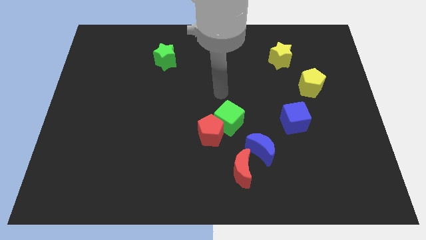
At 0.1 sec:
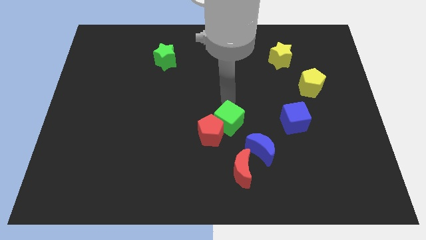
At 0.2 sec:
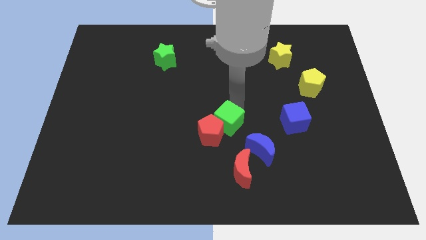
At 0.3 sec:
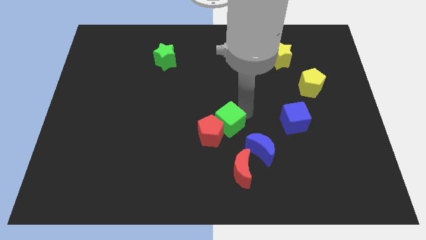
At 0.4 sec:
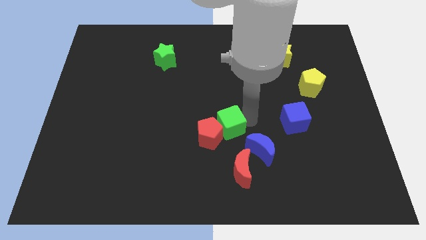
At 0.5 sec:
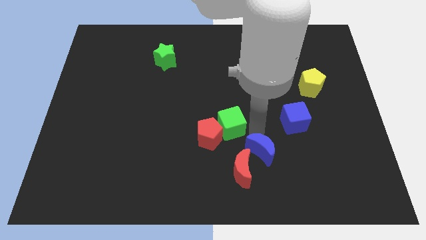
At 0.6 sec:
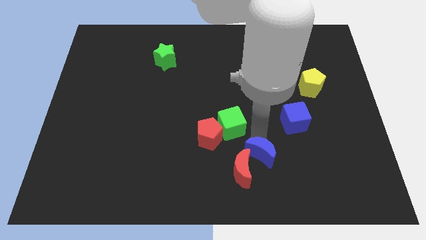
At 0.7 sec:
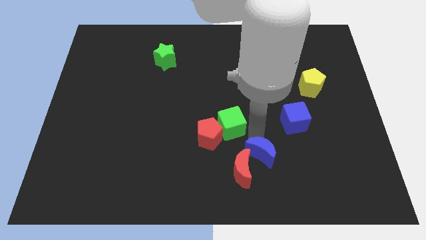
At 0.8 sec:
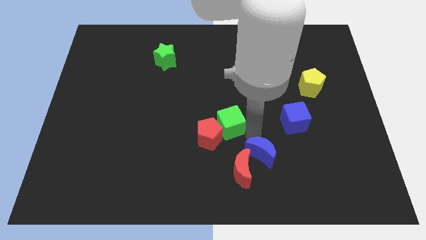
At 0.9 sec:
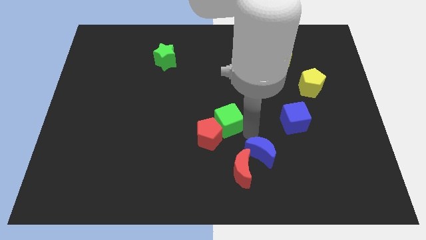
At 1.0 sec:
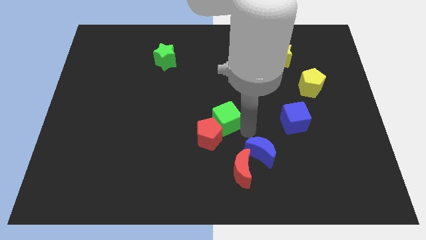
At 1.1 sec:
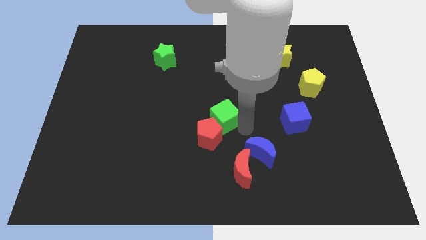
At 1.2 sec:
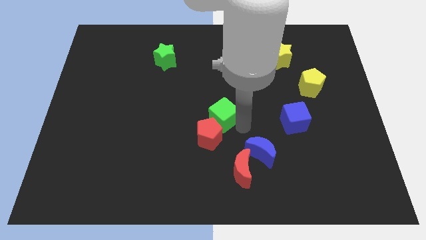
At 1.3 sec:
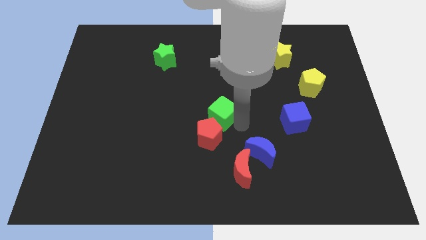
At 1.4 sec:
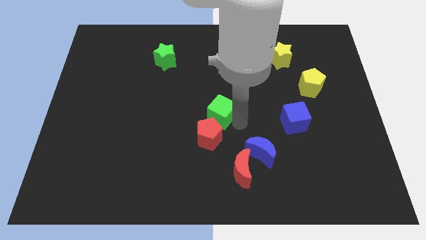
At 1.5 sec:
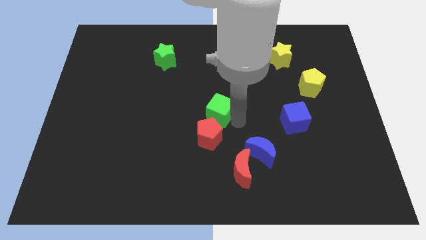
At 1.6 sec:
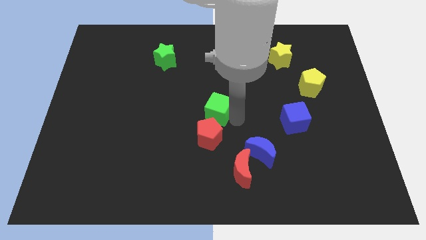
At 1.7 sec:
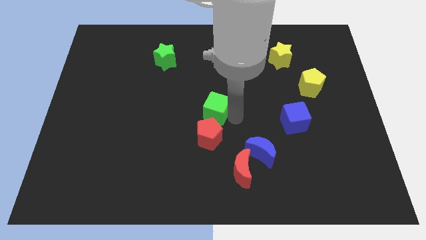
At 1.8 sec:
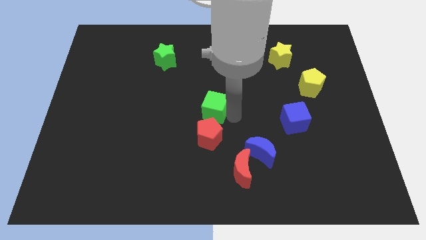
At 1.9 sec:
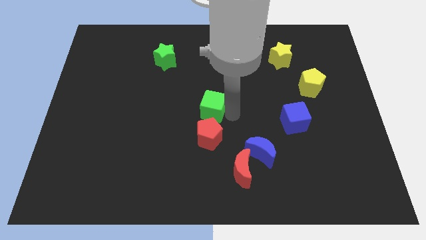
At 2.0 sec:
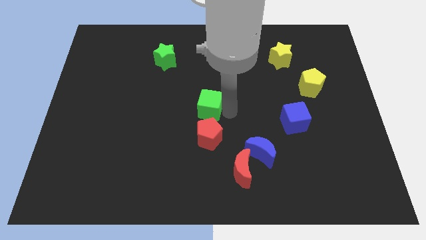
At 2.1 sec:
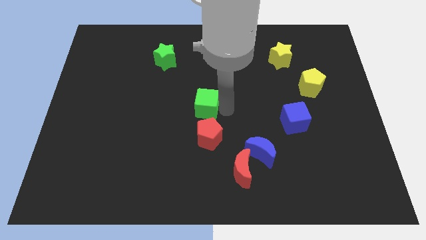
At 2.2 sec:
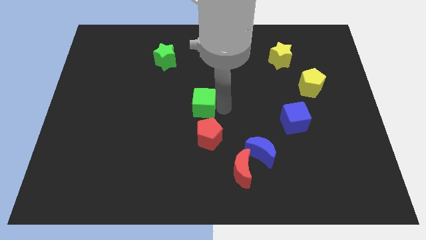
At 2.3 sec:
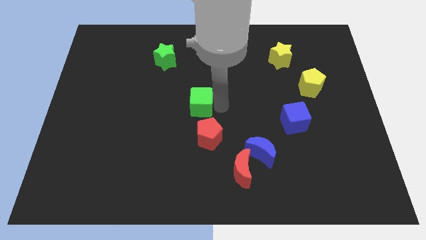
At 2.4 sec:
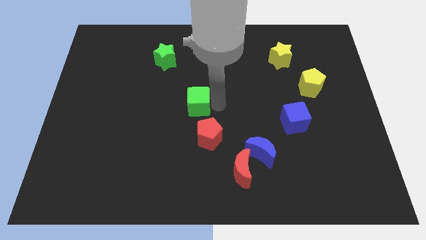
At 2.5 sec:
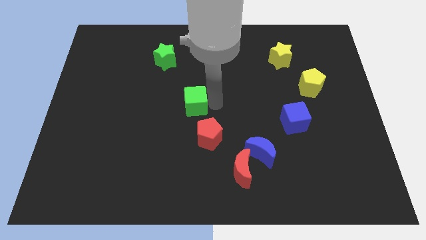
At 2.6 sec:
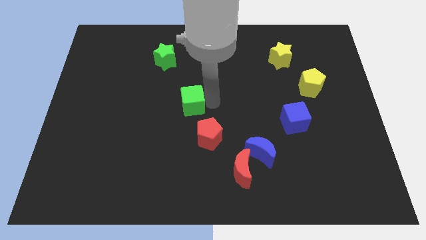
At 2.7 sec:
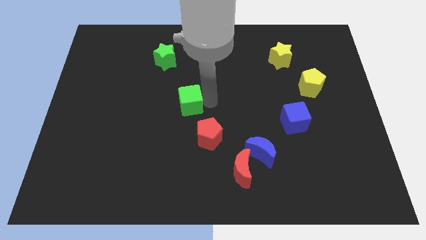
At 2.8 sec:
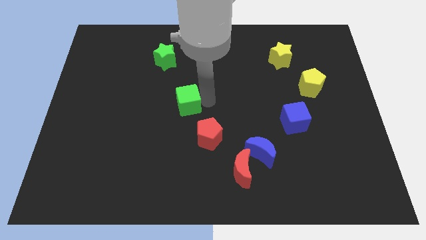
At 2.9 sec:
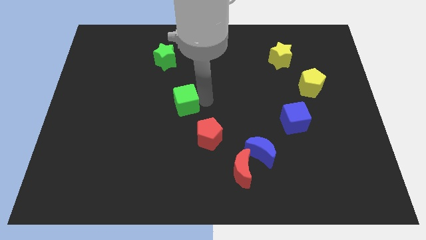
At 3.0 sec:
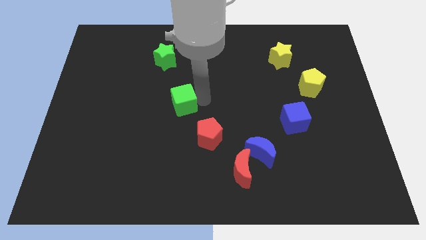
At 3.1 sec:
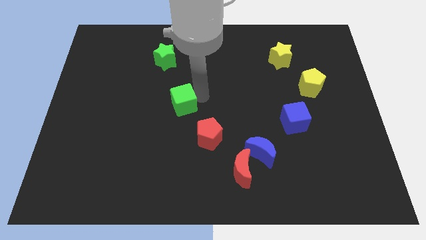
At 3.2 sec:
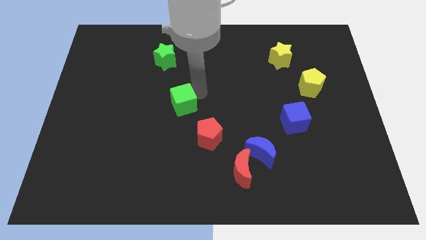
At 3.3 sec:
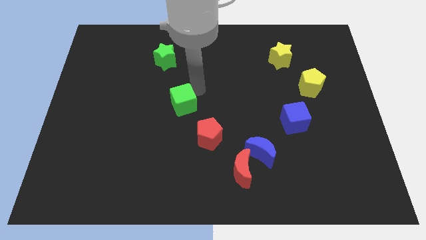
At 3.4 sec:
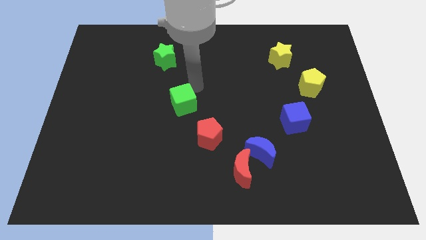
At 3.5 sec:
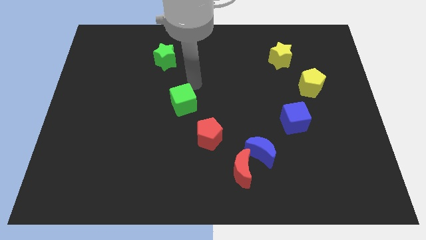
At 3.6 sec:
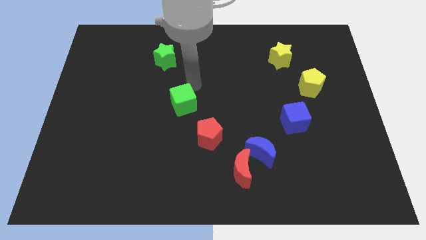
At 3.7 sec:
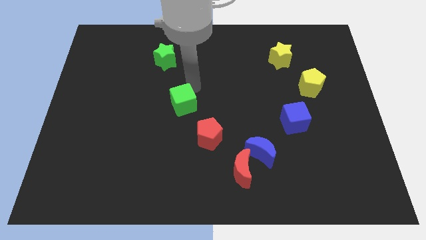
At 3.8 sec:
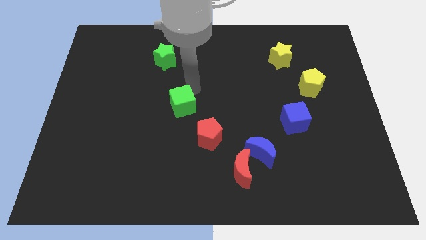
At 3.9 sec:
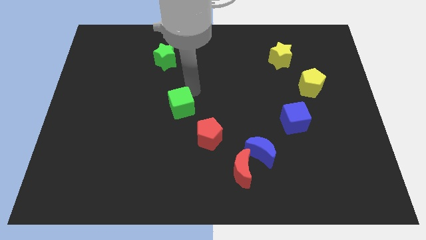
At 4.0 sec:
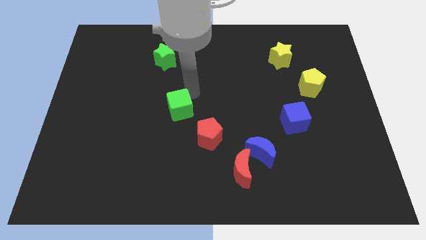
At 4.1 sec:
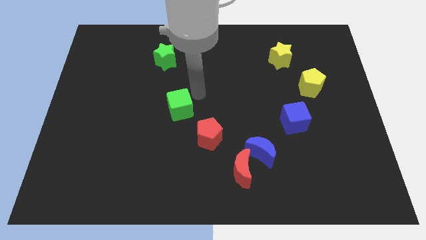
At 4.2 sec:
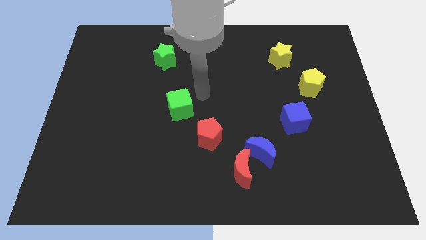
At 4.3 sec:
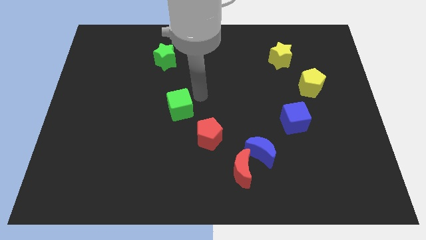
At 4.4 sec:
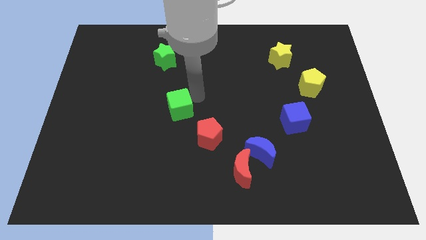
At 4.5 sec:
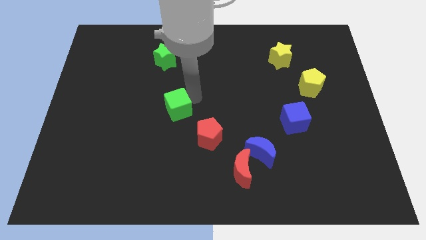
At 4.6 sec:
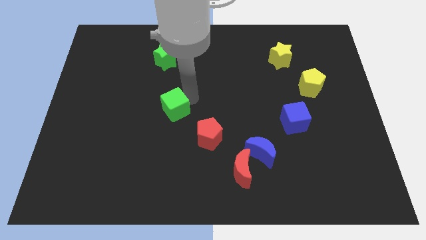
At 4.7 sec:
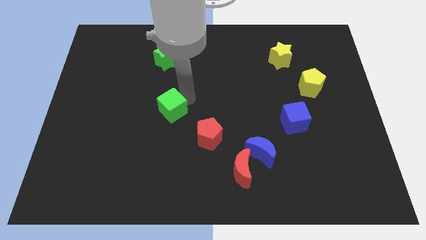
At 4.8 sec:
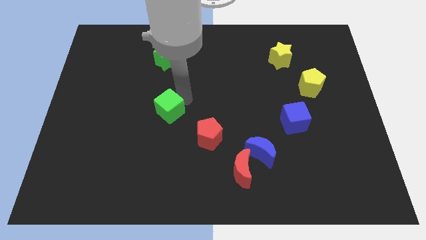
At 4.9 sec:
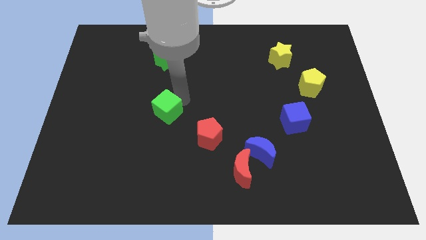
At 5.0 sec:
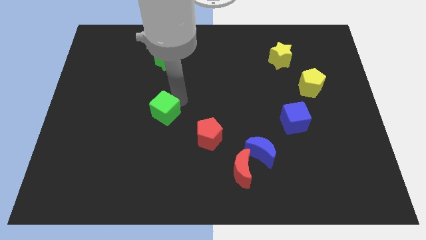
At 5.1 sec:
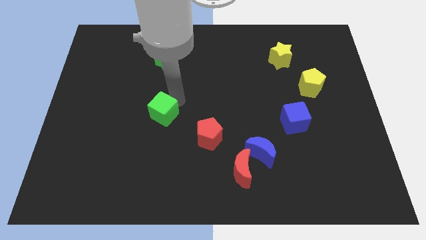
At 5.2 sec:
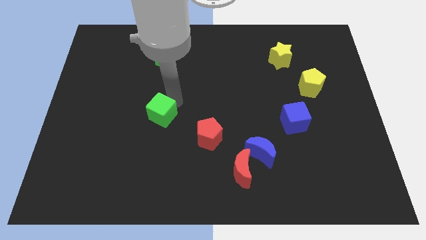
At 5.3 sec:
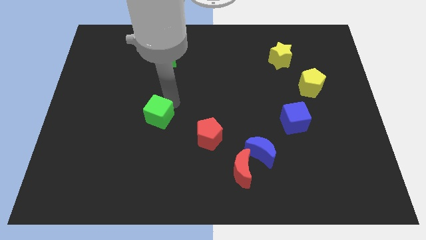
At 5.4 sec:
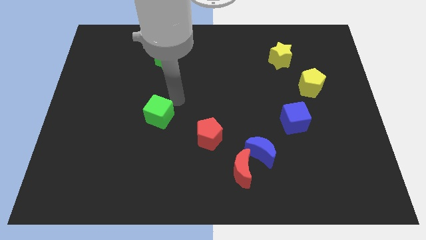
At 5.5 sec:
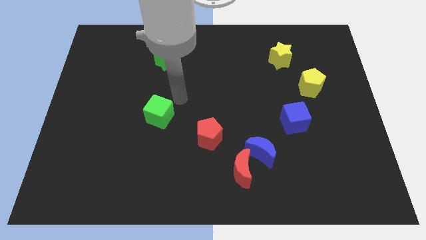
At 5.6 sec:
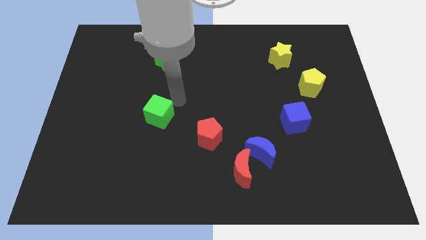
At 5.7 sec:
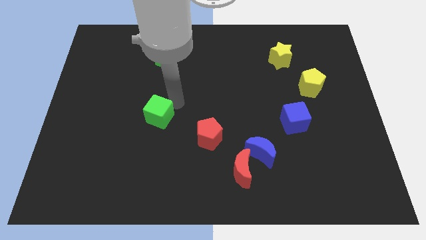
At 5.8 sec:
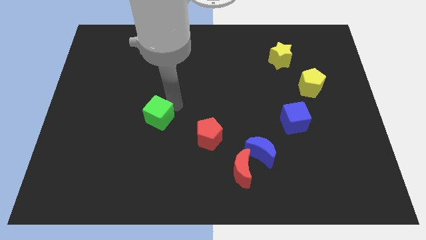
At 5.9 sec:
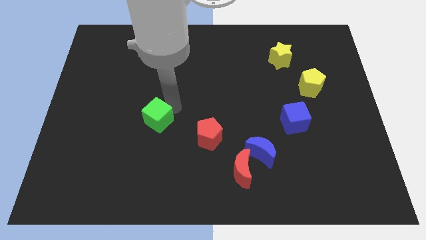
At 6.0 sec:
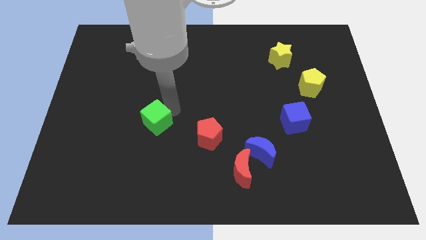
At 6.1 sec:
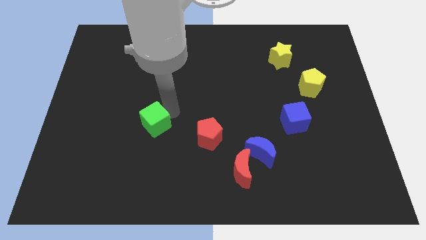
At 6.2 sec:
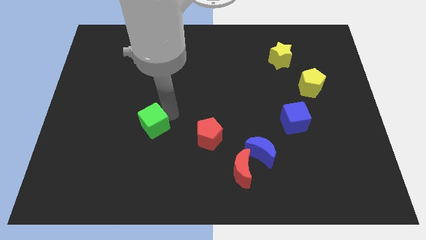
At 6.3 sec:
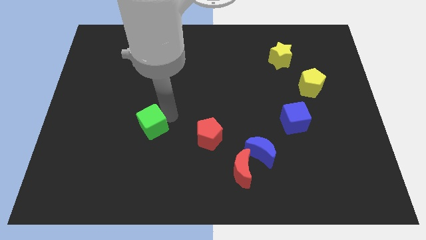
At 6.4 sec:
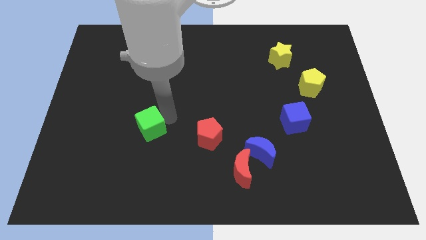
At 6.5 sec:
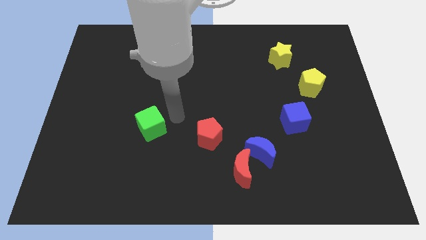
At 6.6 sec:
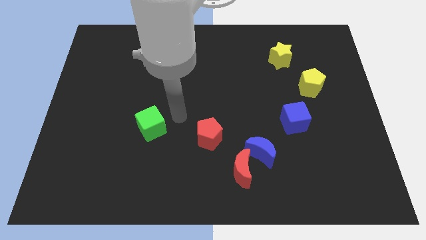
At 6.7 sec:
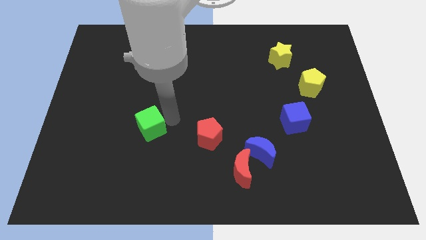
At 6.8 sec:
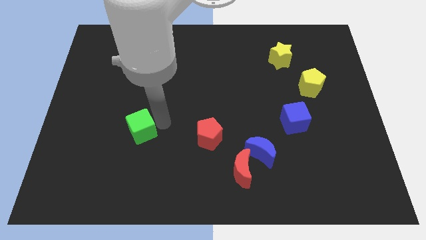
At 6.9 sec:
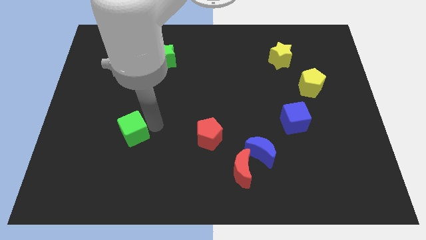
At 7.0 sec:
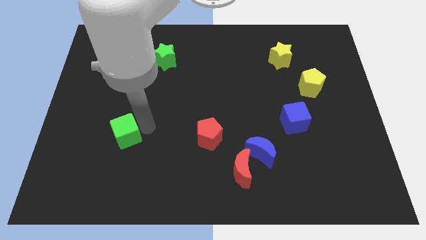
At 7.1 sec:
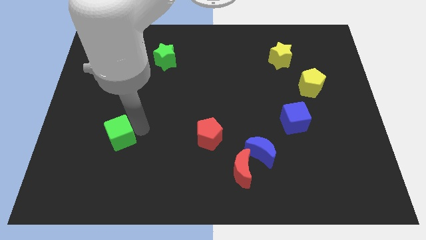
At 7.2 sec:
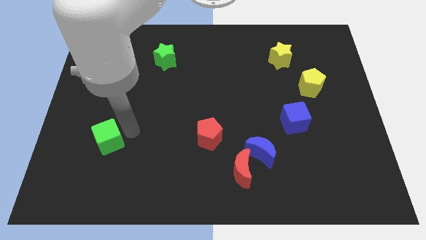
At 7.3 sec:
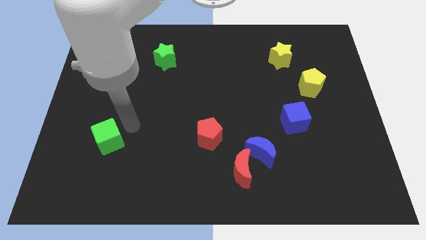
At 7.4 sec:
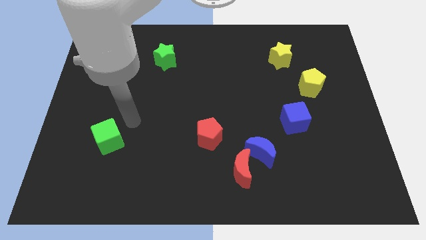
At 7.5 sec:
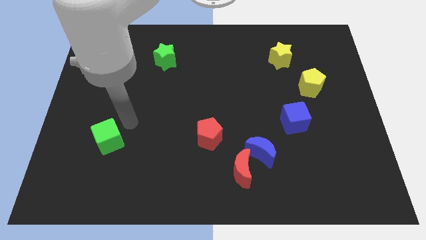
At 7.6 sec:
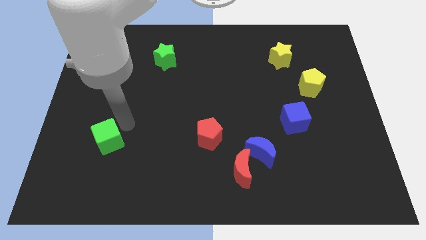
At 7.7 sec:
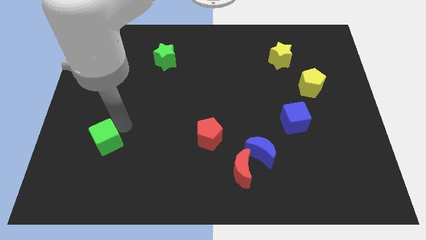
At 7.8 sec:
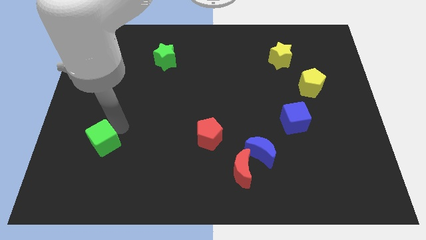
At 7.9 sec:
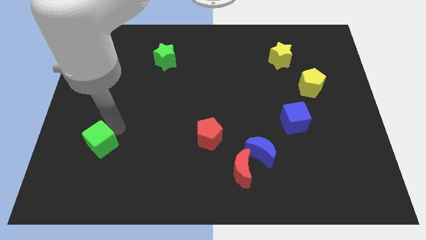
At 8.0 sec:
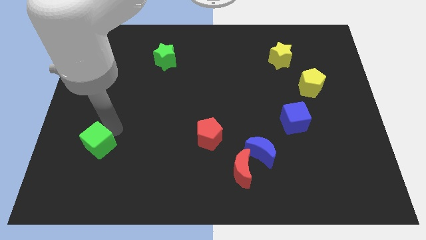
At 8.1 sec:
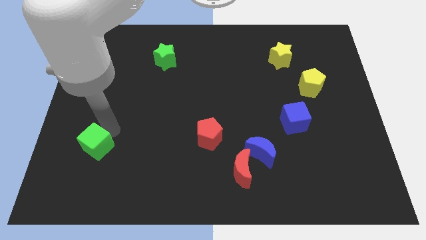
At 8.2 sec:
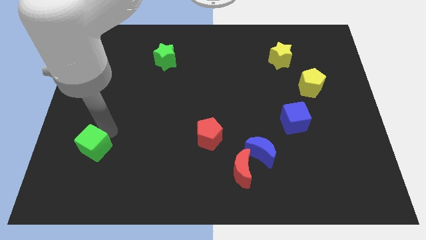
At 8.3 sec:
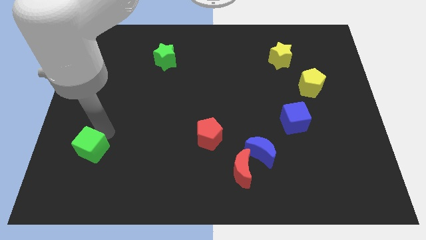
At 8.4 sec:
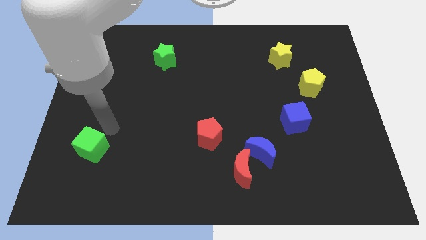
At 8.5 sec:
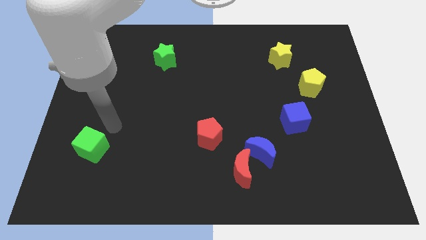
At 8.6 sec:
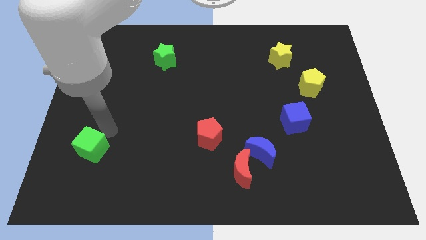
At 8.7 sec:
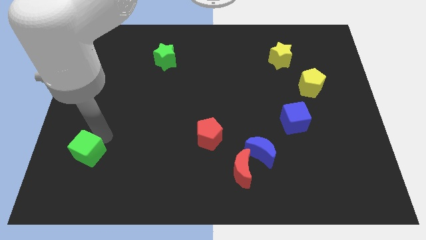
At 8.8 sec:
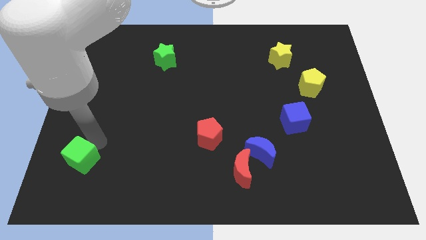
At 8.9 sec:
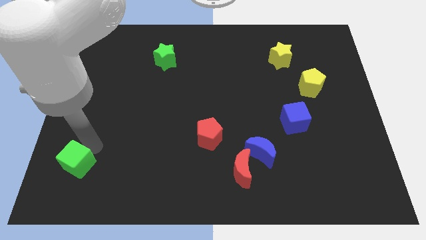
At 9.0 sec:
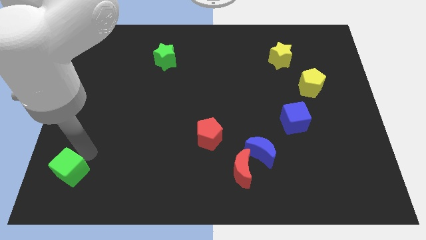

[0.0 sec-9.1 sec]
move the green cube to the bottom left
